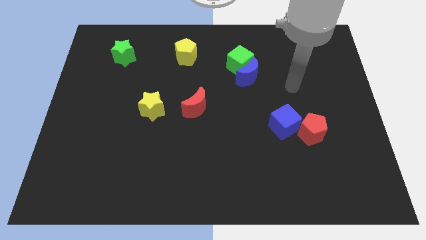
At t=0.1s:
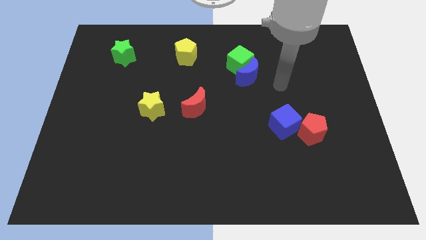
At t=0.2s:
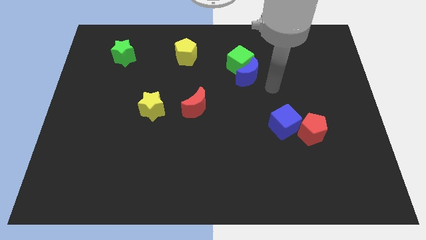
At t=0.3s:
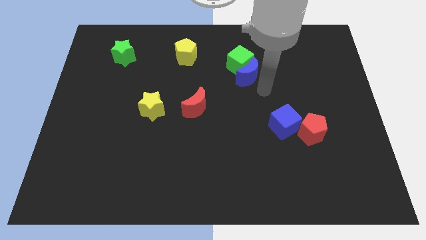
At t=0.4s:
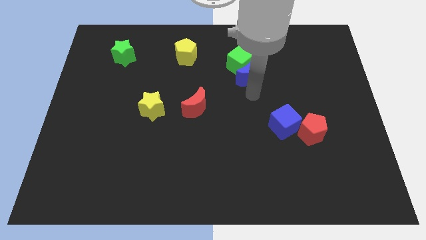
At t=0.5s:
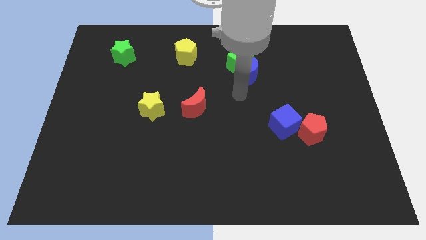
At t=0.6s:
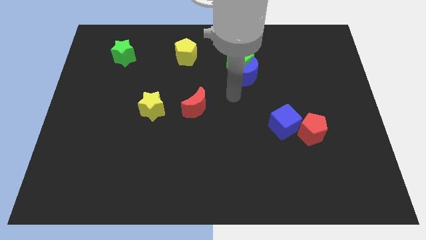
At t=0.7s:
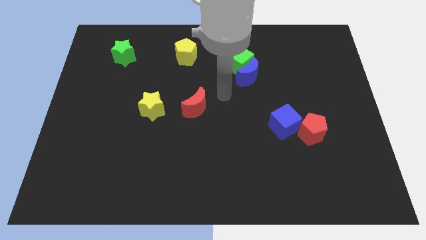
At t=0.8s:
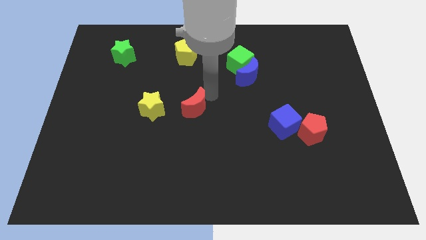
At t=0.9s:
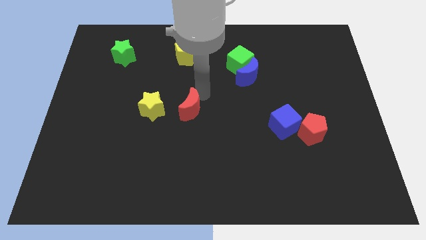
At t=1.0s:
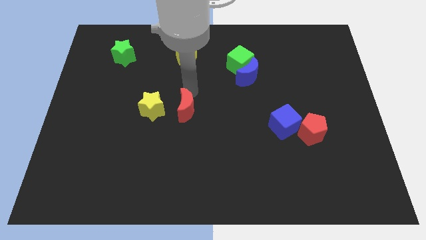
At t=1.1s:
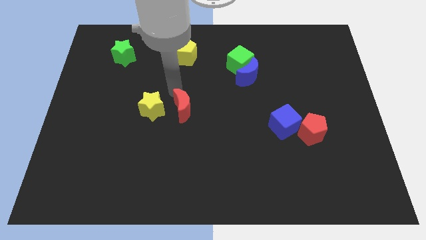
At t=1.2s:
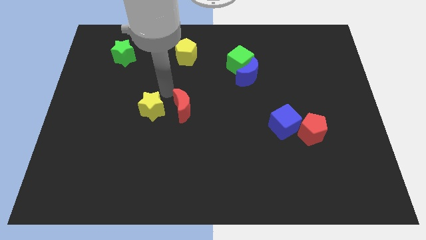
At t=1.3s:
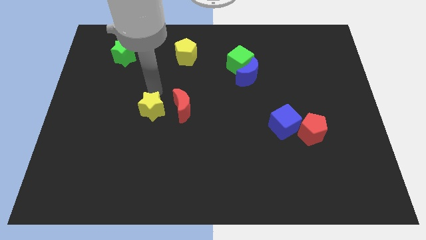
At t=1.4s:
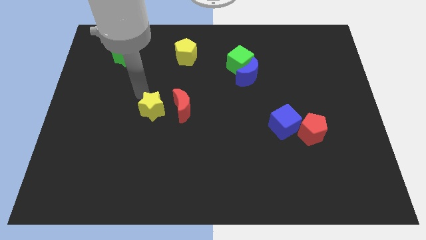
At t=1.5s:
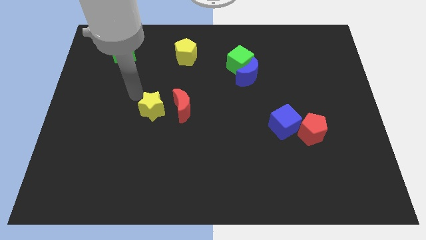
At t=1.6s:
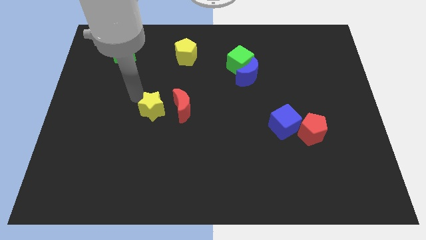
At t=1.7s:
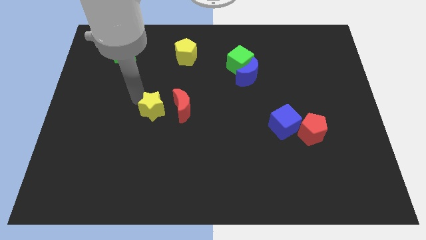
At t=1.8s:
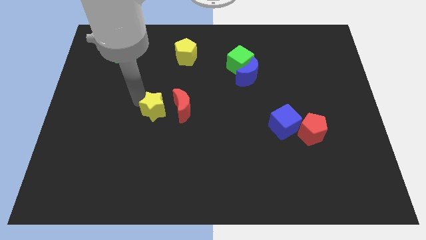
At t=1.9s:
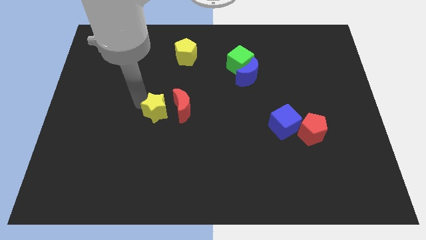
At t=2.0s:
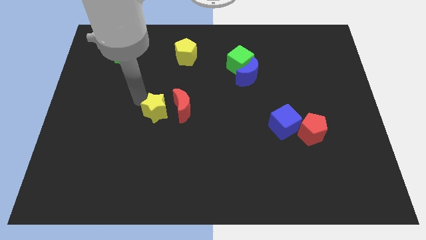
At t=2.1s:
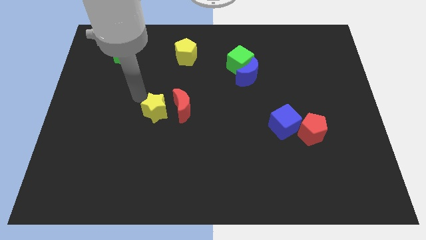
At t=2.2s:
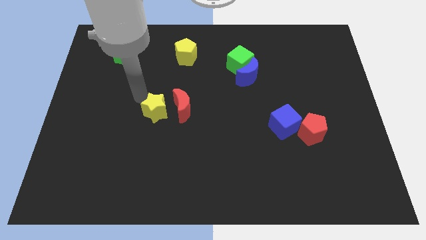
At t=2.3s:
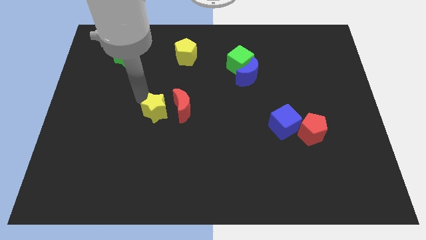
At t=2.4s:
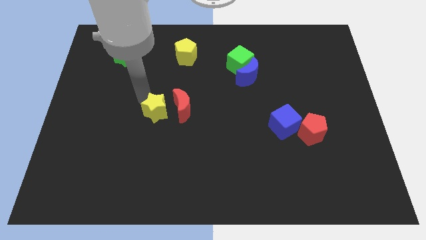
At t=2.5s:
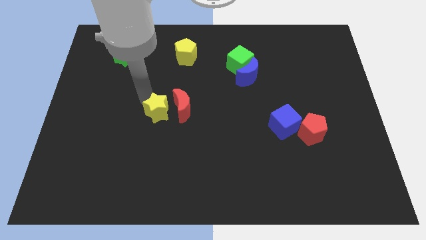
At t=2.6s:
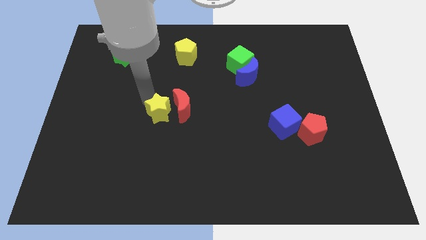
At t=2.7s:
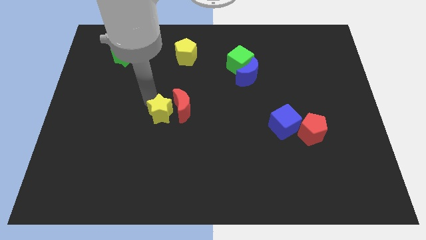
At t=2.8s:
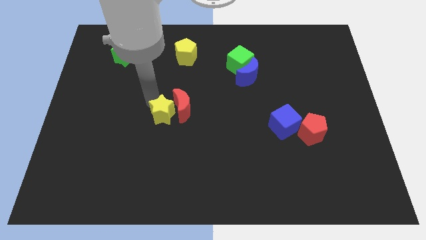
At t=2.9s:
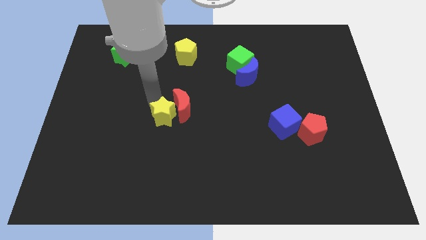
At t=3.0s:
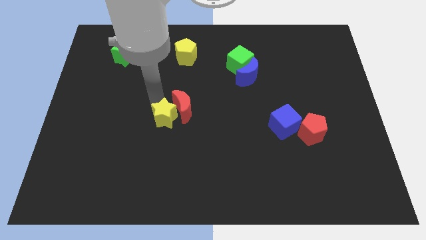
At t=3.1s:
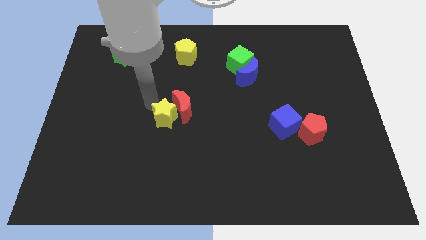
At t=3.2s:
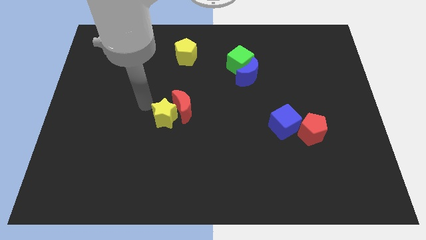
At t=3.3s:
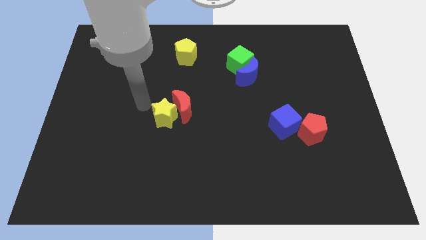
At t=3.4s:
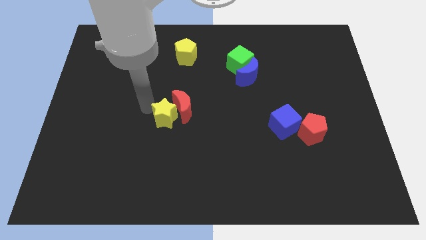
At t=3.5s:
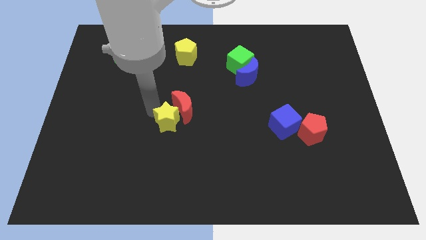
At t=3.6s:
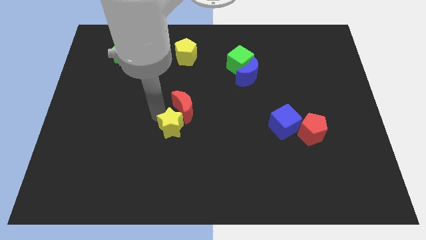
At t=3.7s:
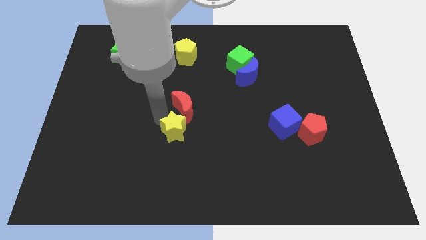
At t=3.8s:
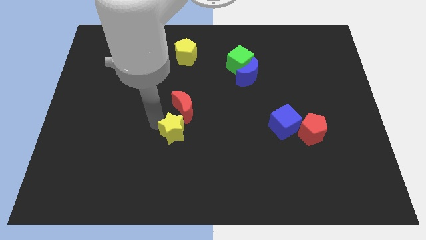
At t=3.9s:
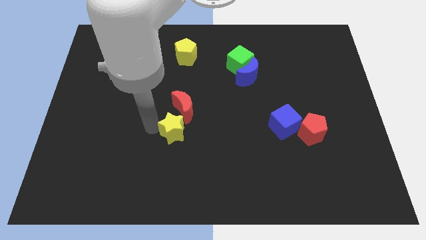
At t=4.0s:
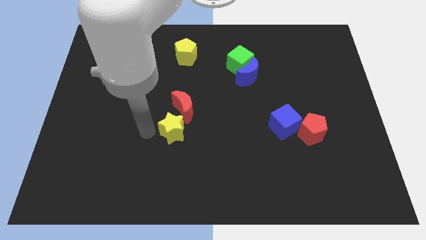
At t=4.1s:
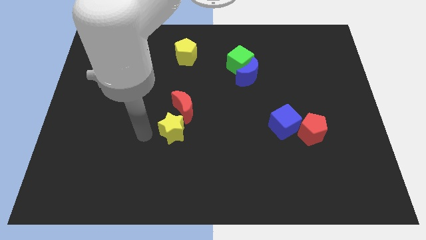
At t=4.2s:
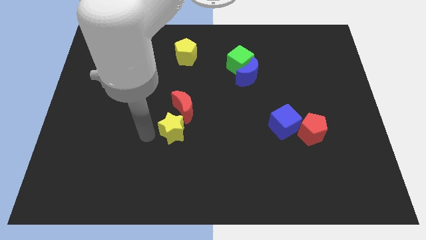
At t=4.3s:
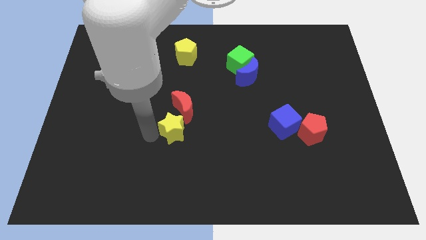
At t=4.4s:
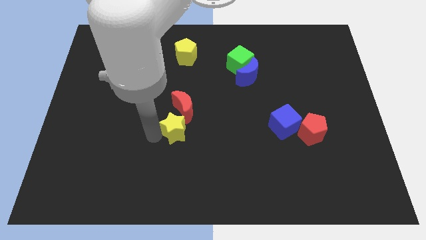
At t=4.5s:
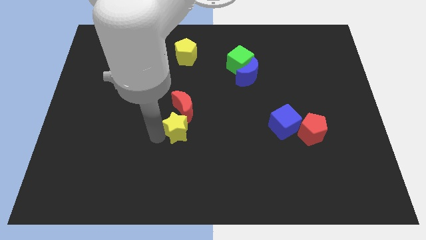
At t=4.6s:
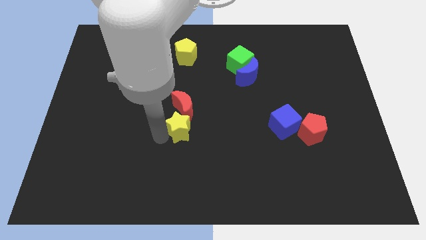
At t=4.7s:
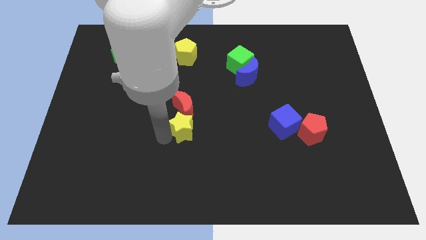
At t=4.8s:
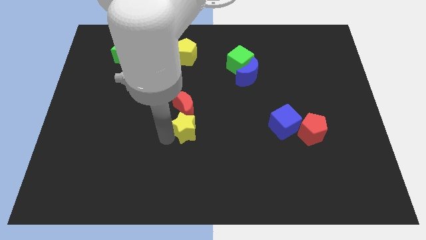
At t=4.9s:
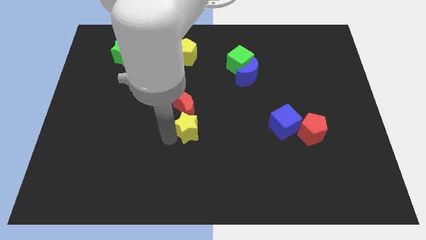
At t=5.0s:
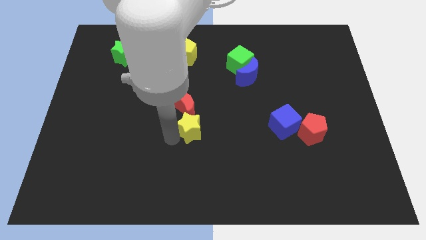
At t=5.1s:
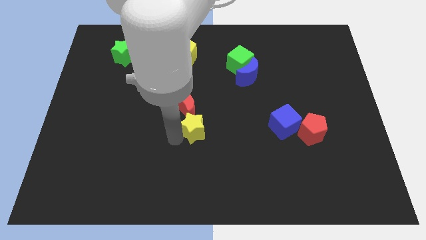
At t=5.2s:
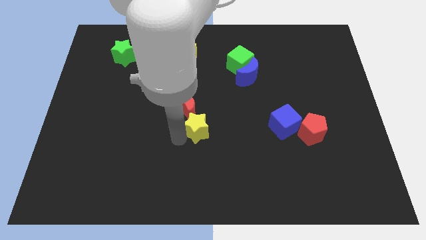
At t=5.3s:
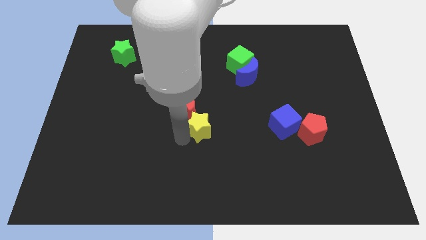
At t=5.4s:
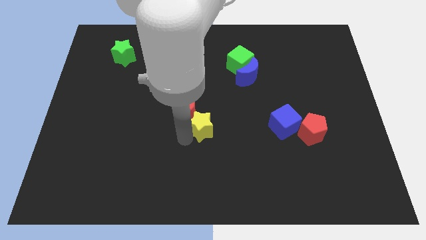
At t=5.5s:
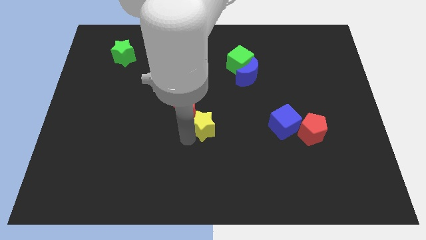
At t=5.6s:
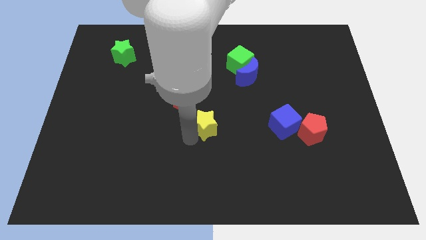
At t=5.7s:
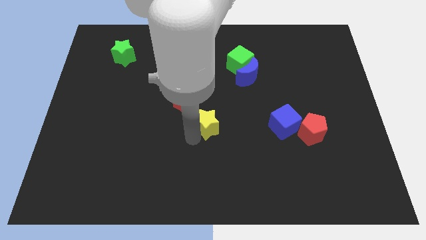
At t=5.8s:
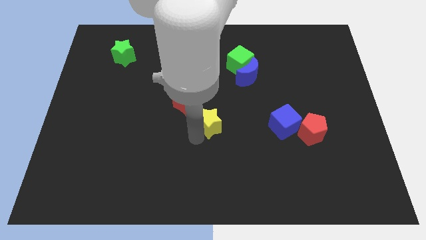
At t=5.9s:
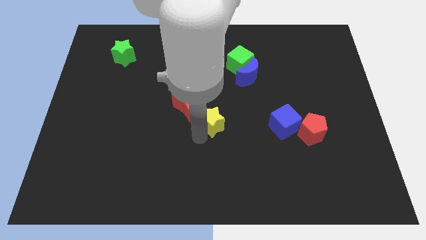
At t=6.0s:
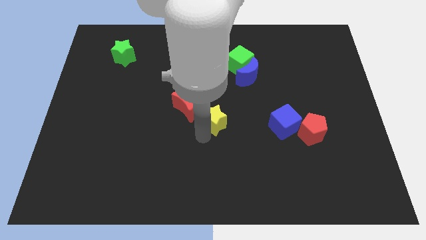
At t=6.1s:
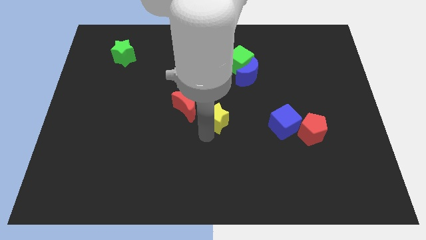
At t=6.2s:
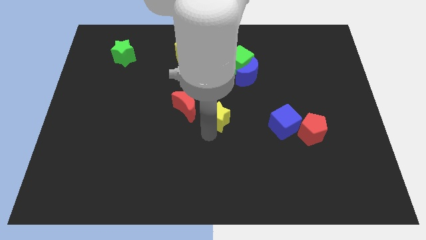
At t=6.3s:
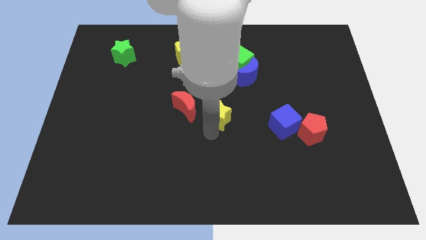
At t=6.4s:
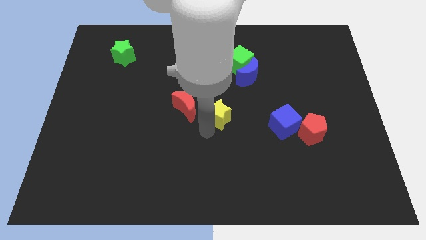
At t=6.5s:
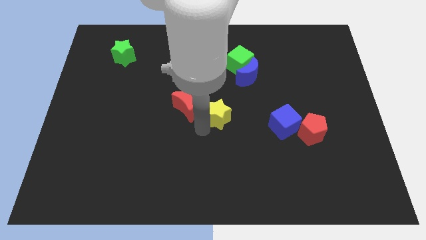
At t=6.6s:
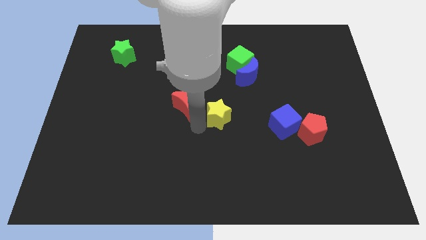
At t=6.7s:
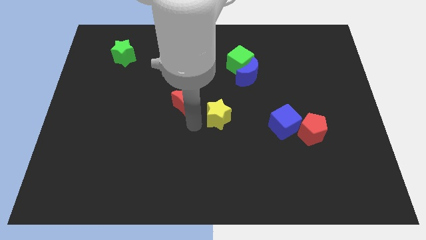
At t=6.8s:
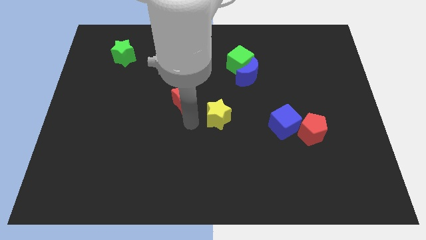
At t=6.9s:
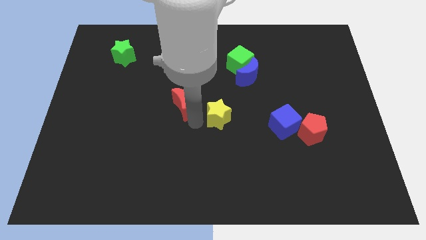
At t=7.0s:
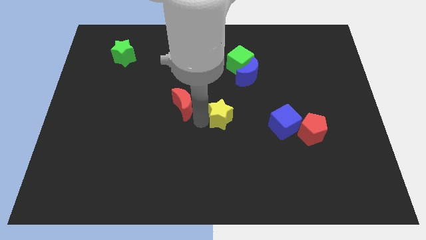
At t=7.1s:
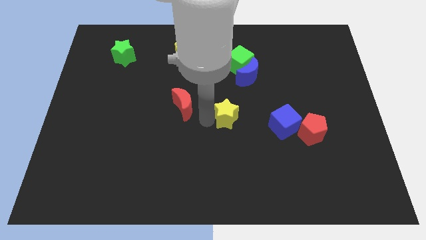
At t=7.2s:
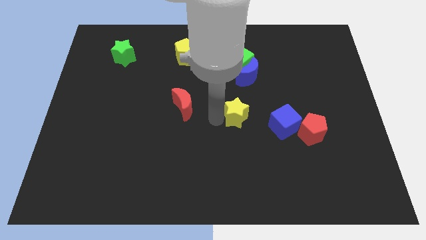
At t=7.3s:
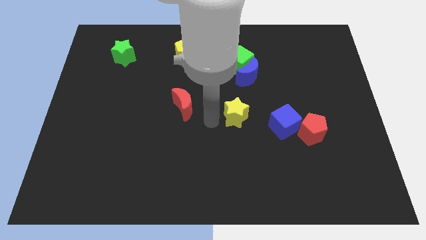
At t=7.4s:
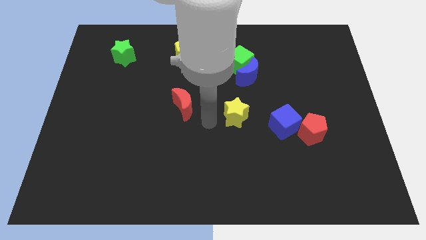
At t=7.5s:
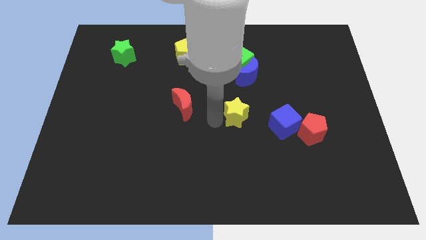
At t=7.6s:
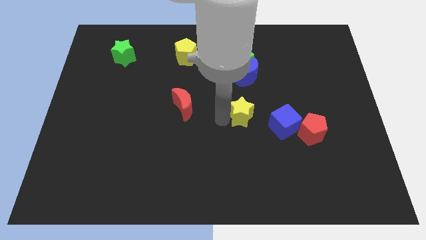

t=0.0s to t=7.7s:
move the yellow star right

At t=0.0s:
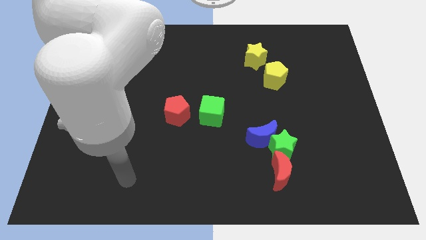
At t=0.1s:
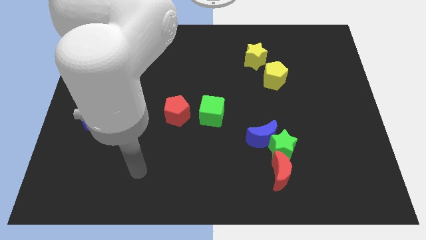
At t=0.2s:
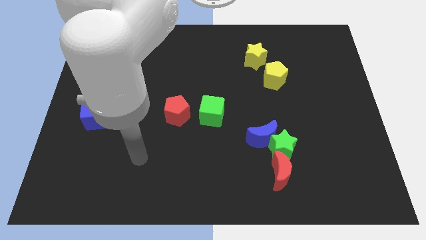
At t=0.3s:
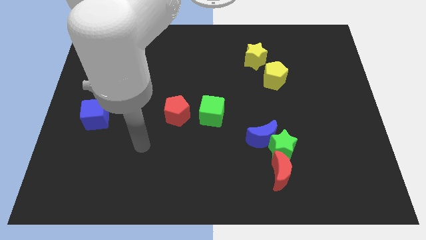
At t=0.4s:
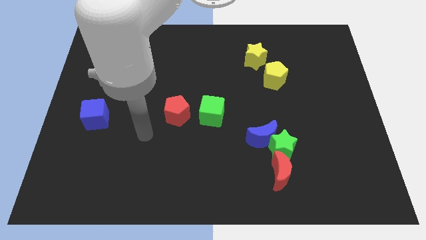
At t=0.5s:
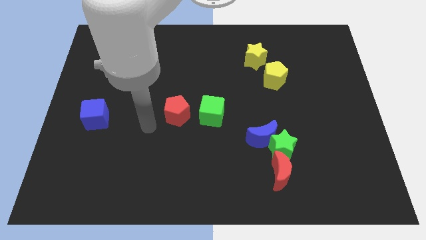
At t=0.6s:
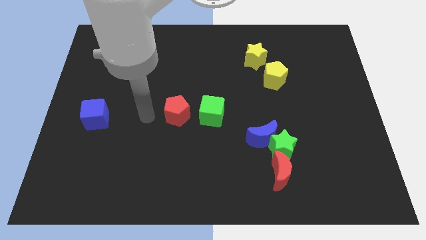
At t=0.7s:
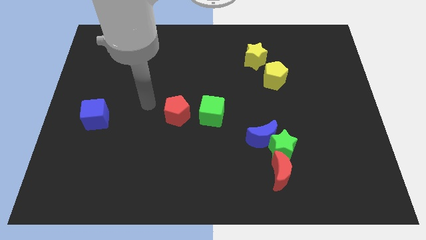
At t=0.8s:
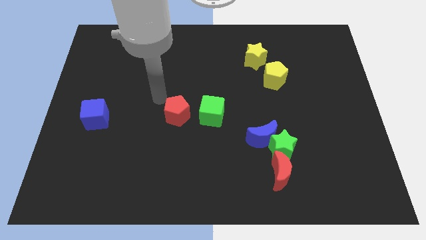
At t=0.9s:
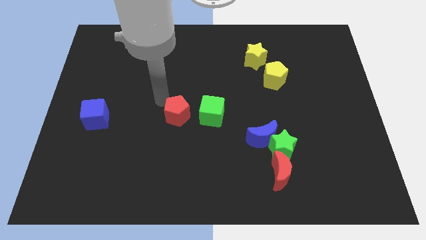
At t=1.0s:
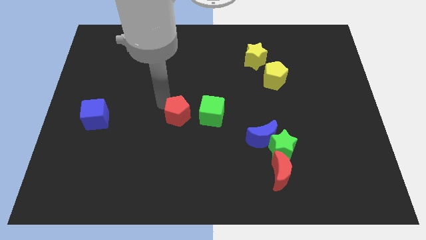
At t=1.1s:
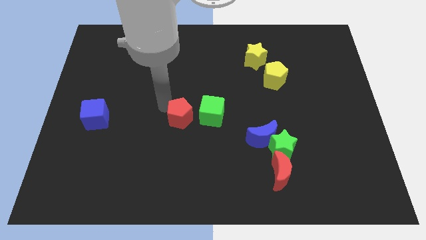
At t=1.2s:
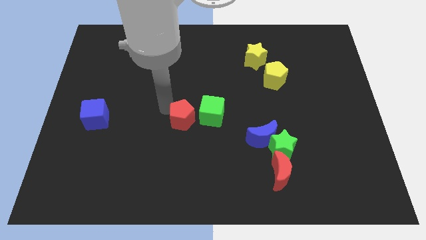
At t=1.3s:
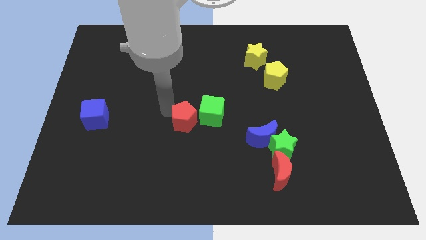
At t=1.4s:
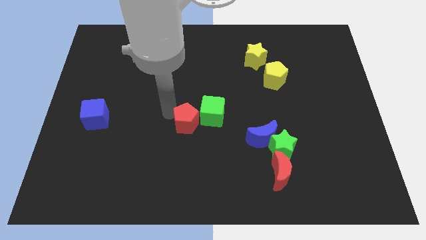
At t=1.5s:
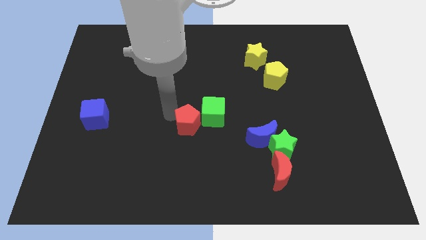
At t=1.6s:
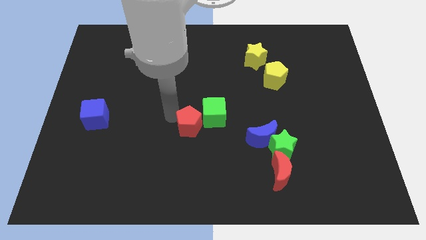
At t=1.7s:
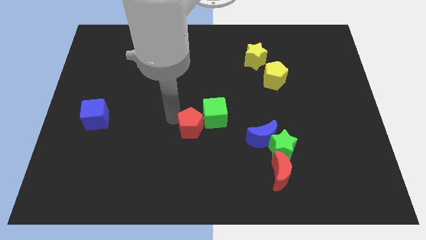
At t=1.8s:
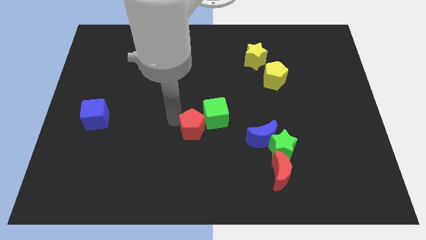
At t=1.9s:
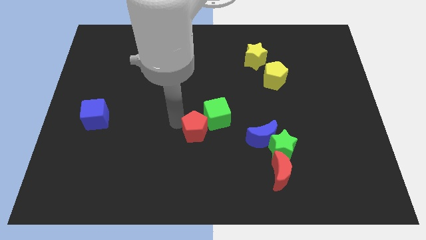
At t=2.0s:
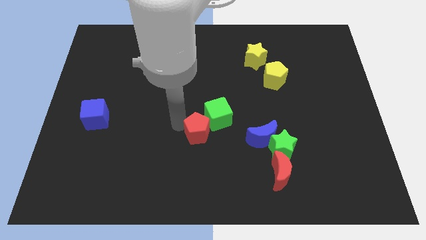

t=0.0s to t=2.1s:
slightly slide the red pentagon down and right
